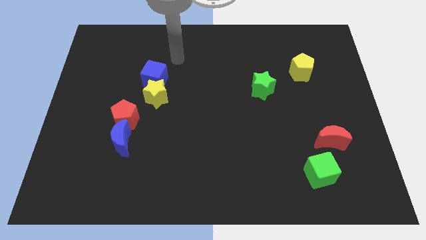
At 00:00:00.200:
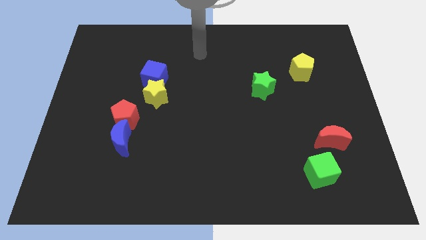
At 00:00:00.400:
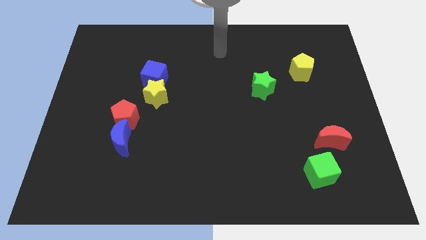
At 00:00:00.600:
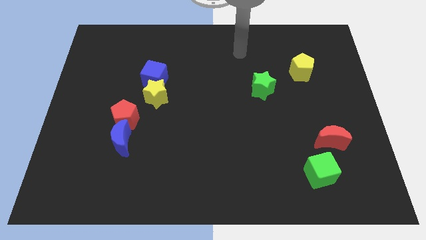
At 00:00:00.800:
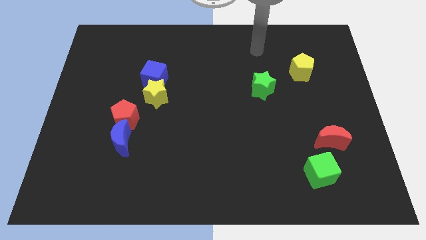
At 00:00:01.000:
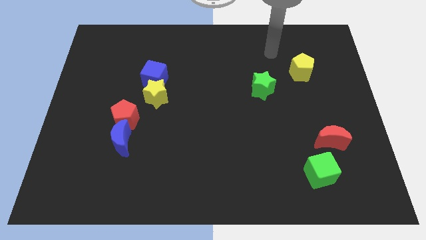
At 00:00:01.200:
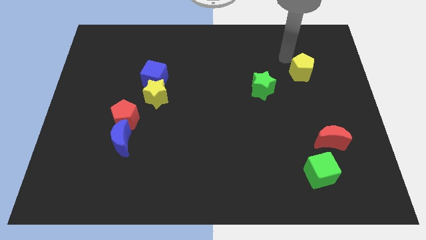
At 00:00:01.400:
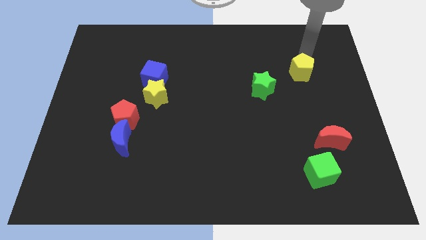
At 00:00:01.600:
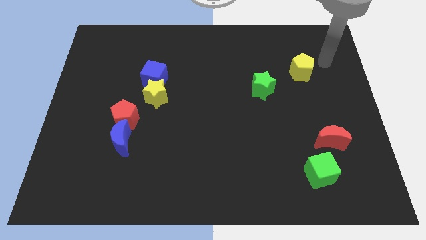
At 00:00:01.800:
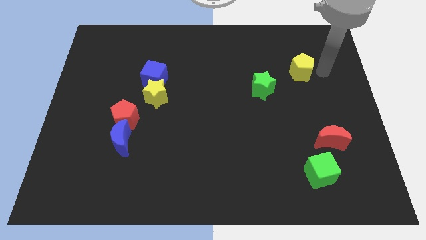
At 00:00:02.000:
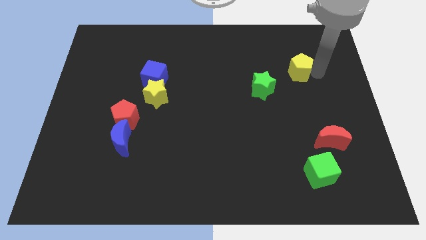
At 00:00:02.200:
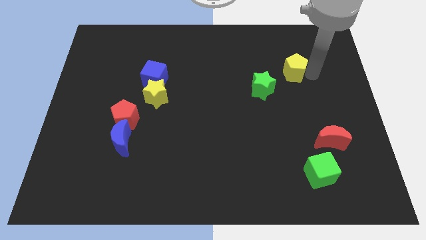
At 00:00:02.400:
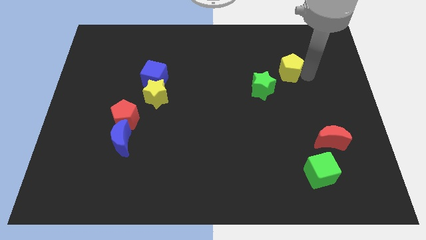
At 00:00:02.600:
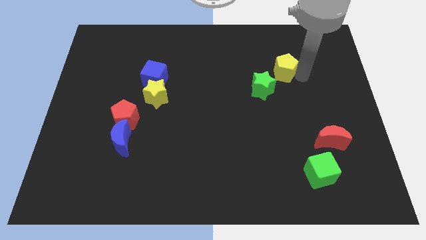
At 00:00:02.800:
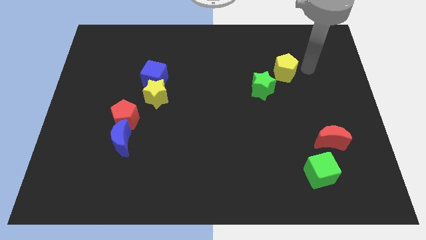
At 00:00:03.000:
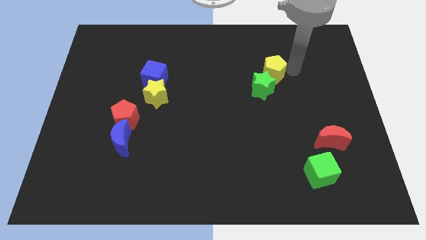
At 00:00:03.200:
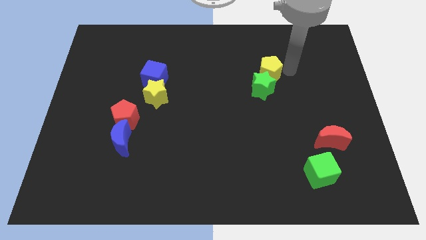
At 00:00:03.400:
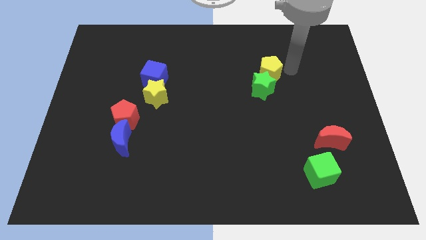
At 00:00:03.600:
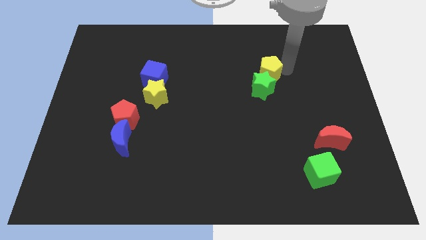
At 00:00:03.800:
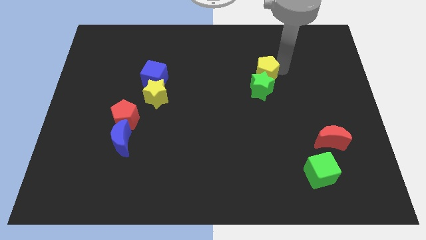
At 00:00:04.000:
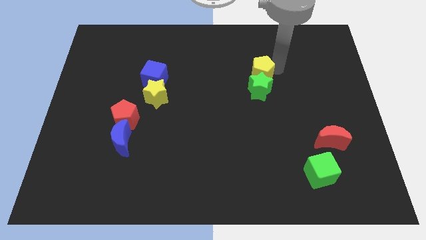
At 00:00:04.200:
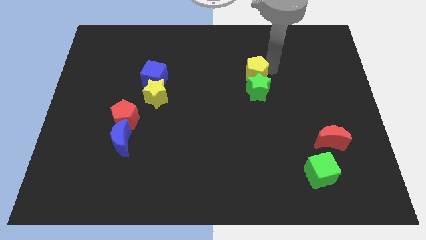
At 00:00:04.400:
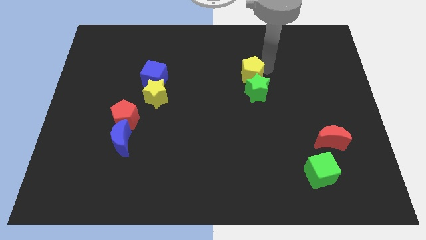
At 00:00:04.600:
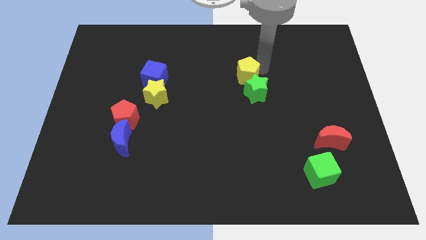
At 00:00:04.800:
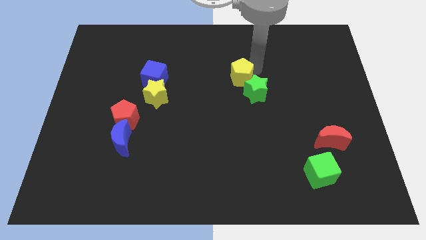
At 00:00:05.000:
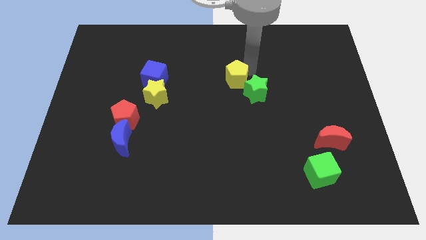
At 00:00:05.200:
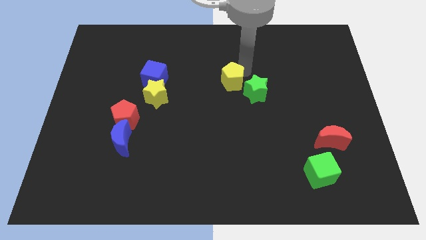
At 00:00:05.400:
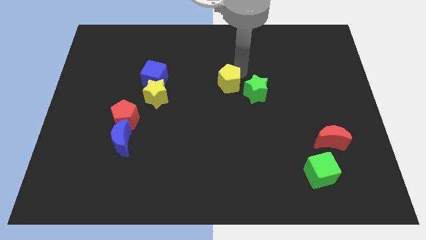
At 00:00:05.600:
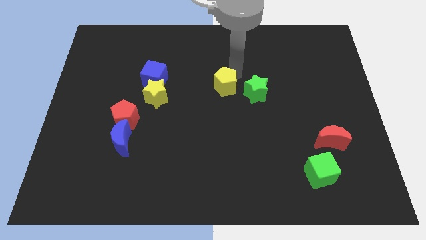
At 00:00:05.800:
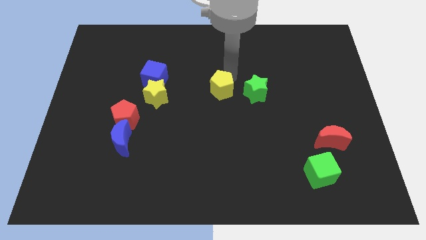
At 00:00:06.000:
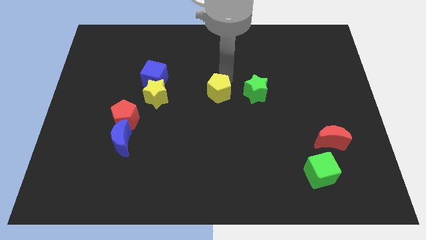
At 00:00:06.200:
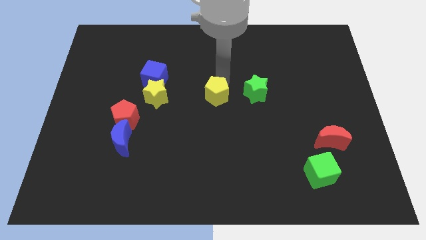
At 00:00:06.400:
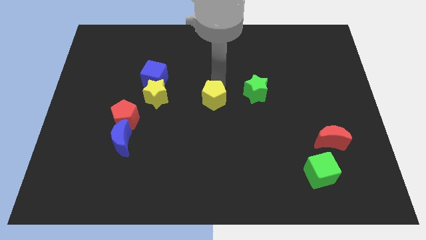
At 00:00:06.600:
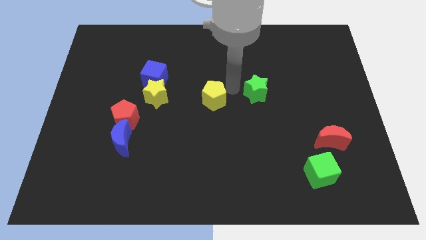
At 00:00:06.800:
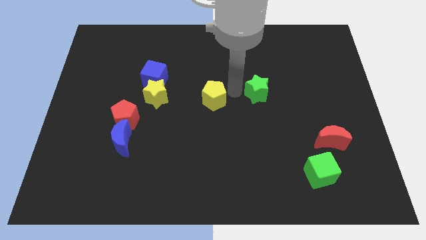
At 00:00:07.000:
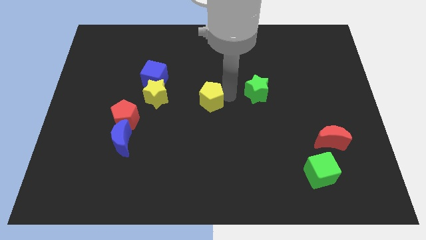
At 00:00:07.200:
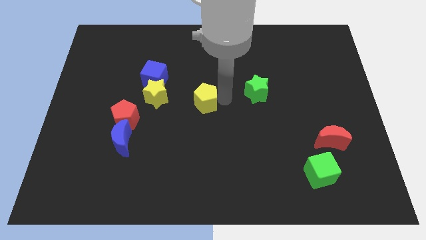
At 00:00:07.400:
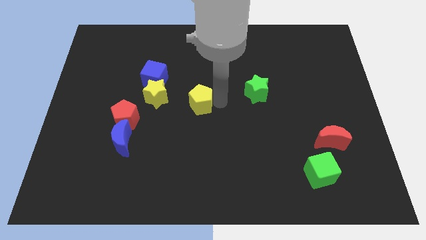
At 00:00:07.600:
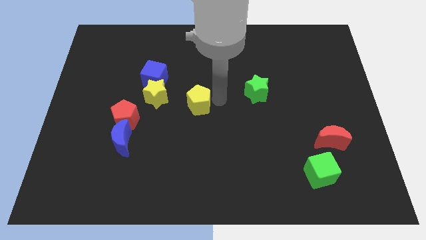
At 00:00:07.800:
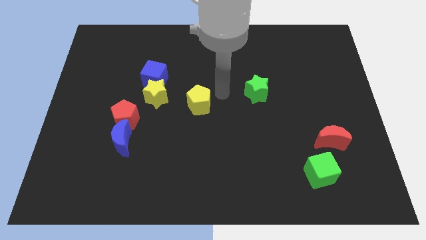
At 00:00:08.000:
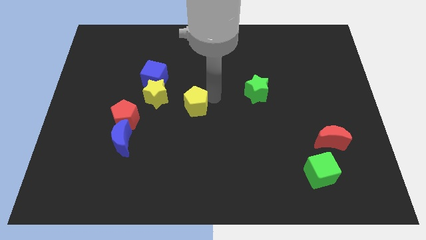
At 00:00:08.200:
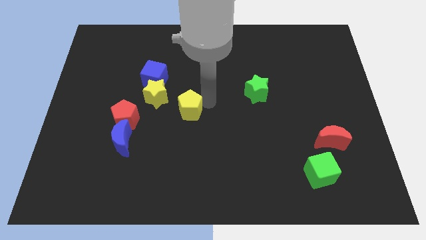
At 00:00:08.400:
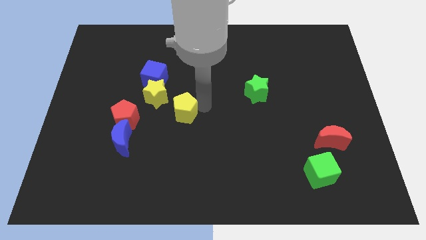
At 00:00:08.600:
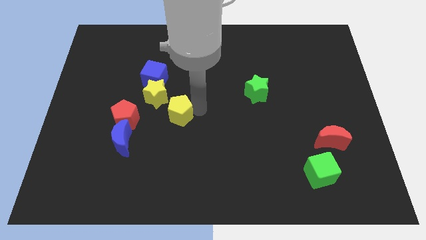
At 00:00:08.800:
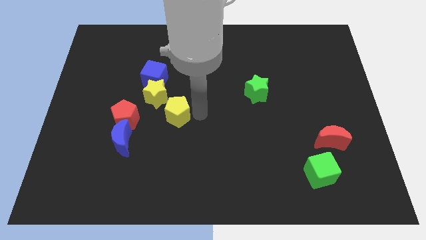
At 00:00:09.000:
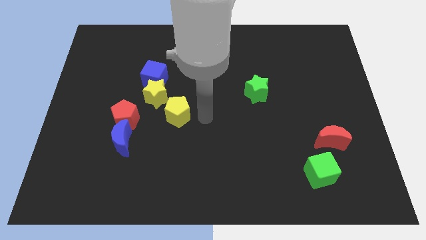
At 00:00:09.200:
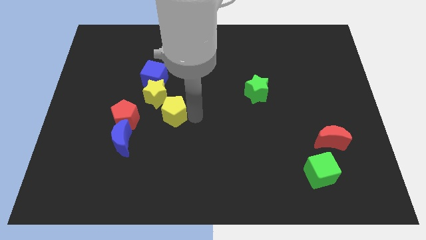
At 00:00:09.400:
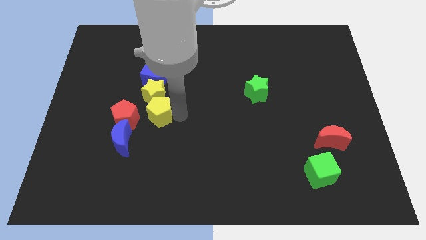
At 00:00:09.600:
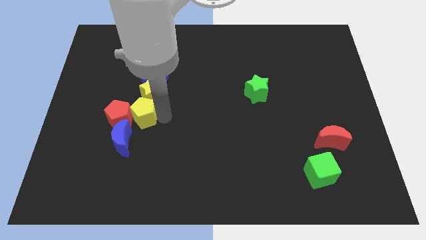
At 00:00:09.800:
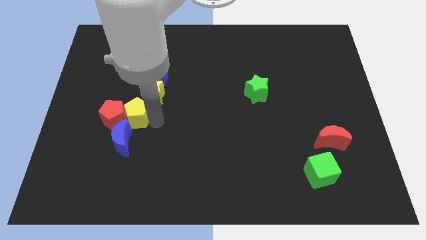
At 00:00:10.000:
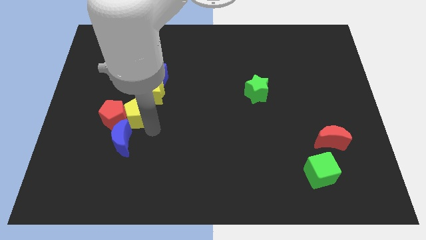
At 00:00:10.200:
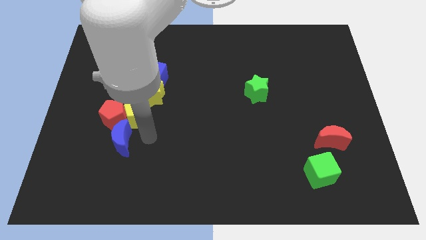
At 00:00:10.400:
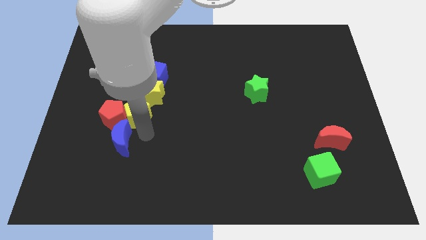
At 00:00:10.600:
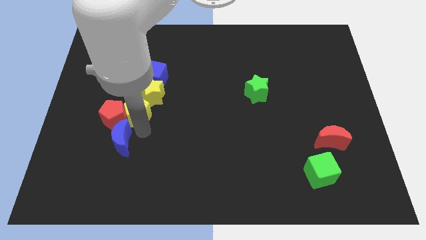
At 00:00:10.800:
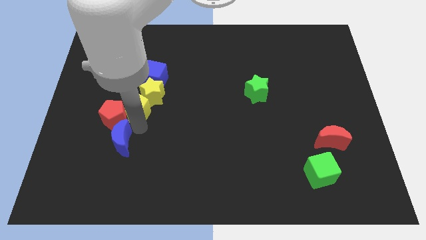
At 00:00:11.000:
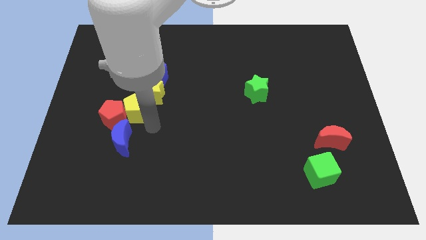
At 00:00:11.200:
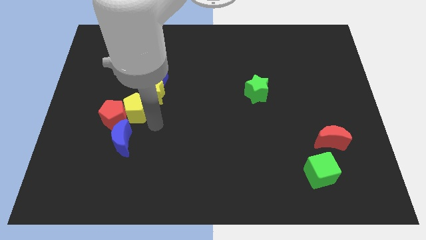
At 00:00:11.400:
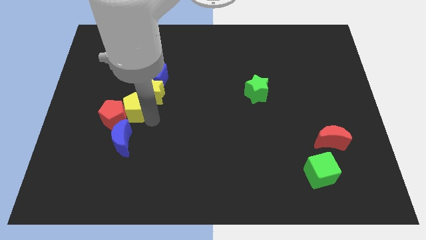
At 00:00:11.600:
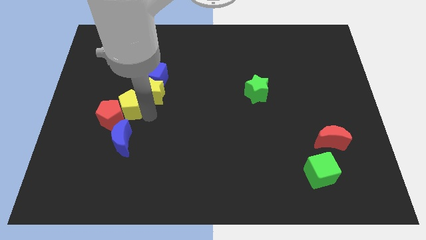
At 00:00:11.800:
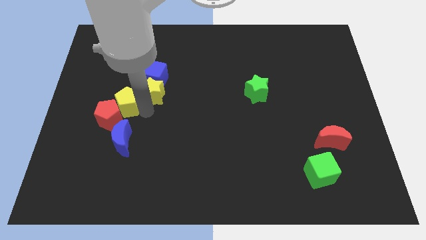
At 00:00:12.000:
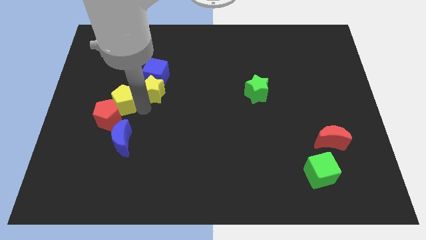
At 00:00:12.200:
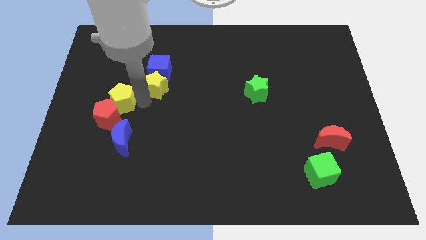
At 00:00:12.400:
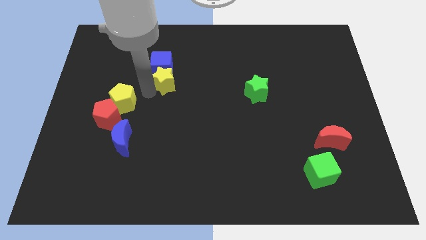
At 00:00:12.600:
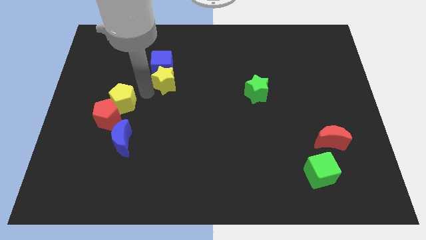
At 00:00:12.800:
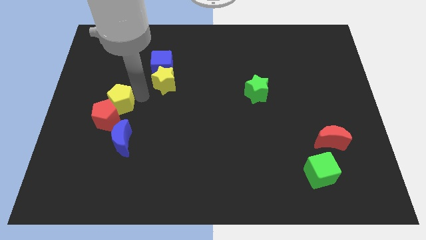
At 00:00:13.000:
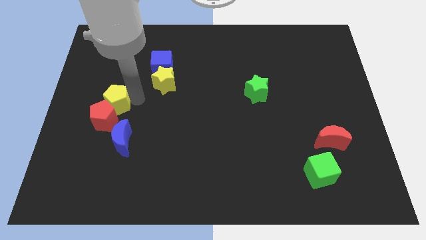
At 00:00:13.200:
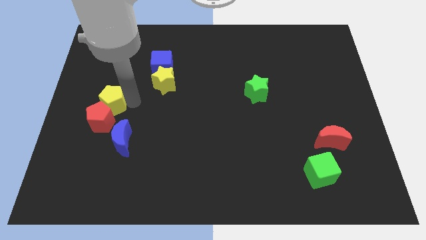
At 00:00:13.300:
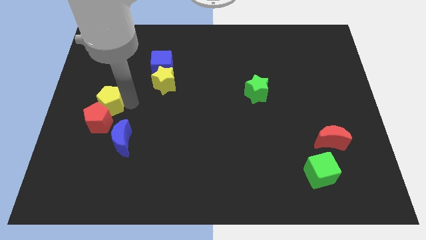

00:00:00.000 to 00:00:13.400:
put the yellow pentagon to the top left of the blue moon
